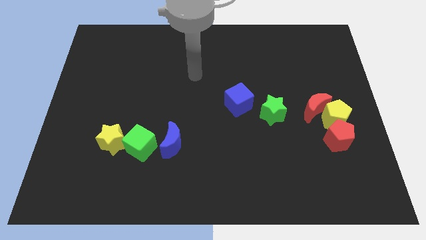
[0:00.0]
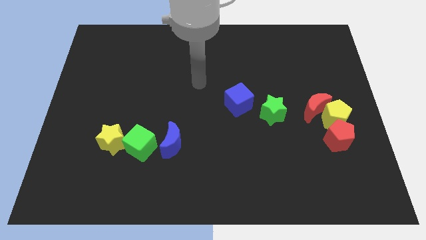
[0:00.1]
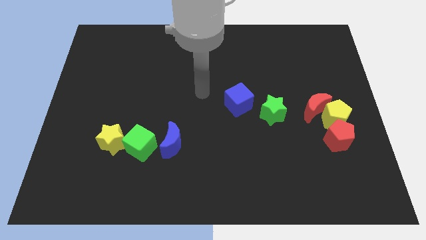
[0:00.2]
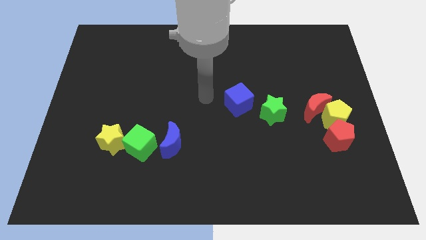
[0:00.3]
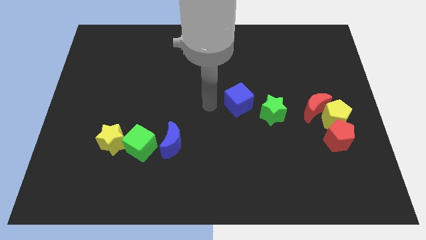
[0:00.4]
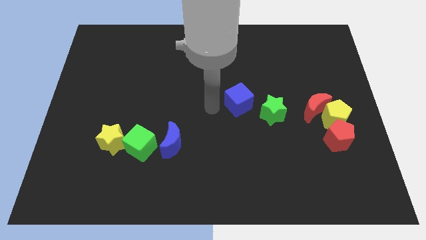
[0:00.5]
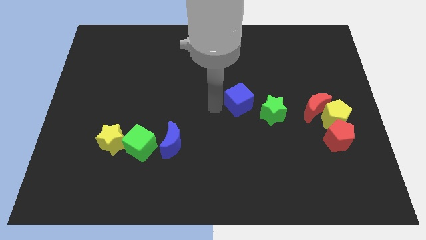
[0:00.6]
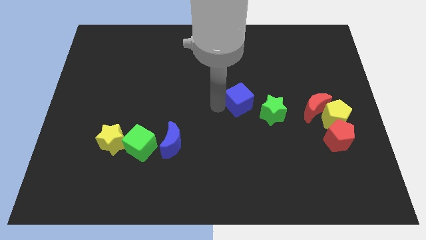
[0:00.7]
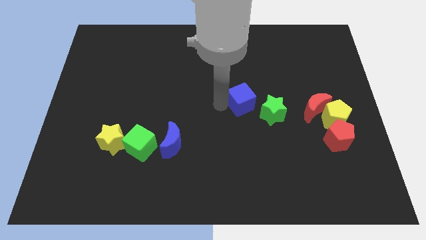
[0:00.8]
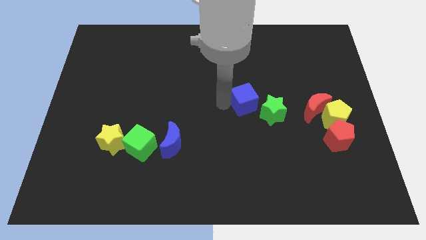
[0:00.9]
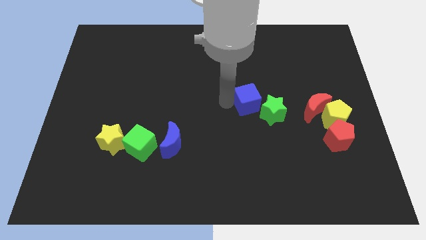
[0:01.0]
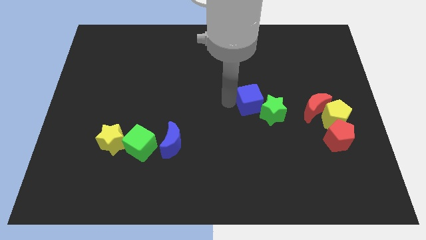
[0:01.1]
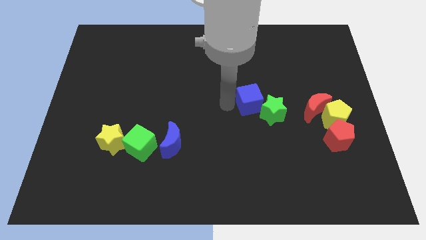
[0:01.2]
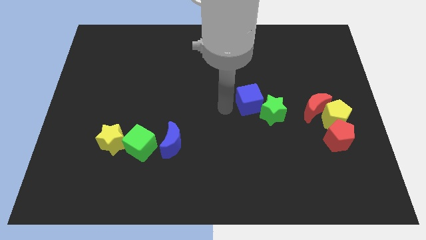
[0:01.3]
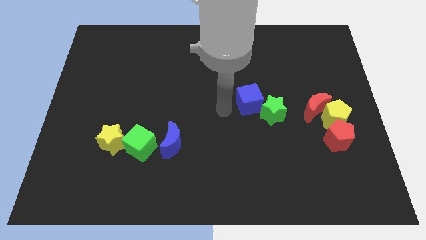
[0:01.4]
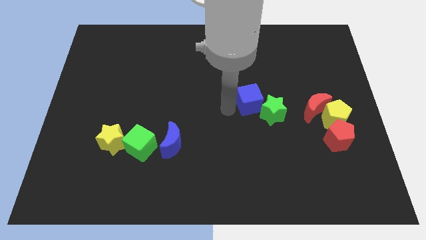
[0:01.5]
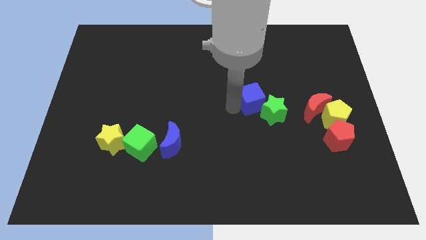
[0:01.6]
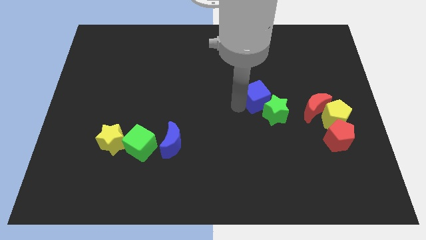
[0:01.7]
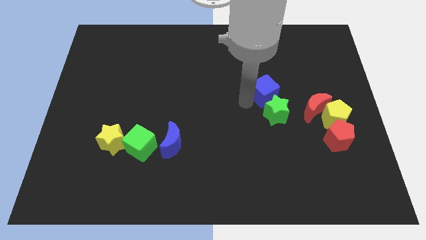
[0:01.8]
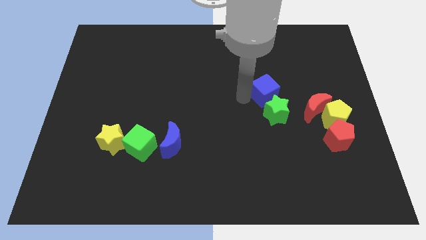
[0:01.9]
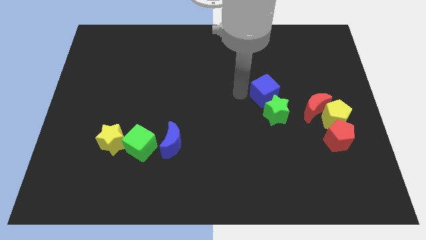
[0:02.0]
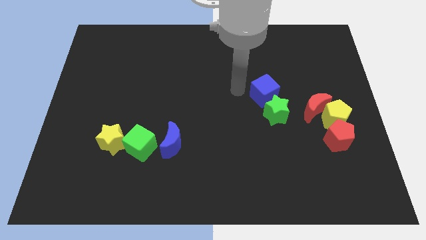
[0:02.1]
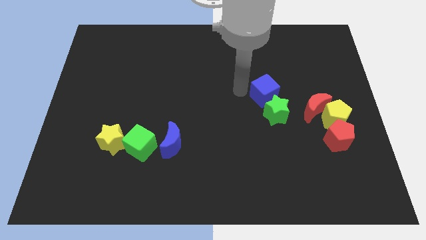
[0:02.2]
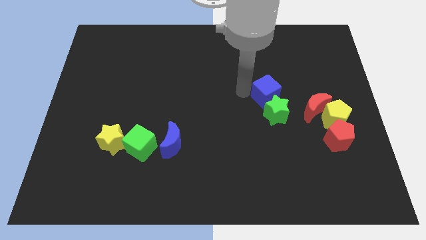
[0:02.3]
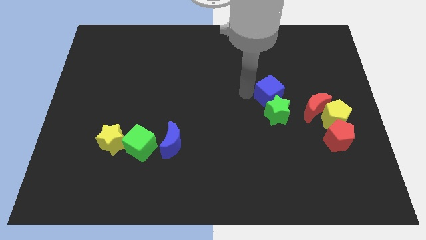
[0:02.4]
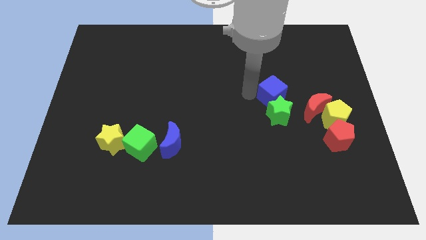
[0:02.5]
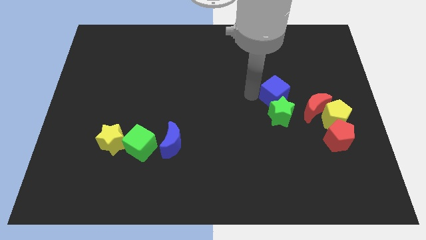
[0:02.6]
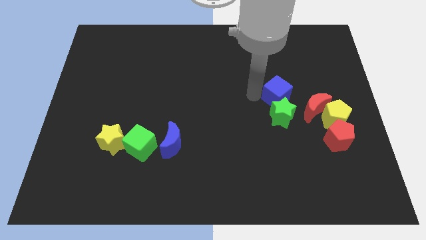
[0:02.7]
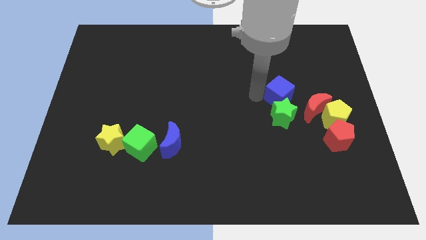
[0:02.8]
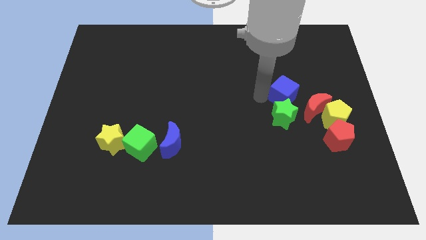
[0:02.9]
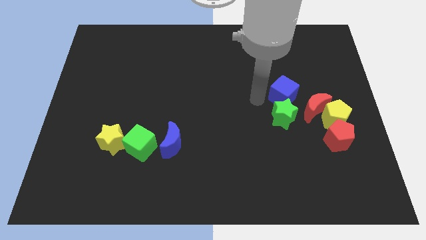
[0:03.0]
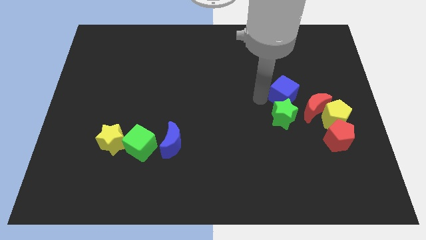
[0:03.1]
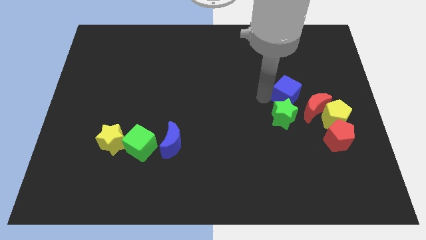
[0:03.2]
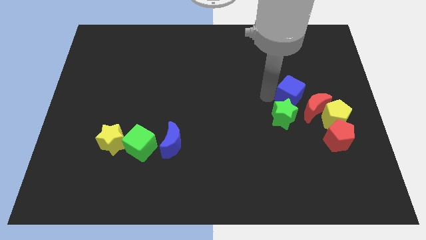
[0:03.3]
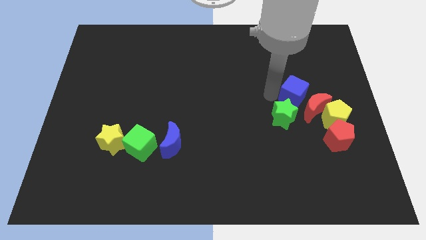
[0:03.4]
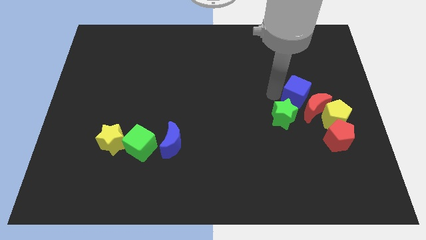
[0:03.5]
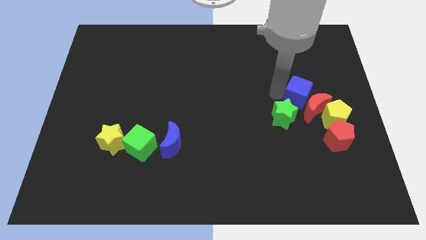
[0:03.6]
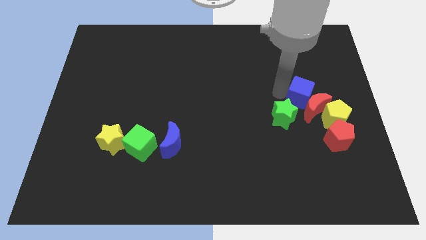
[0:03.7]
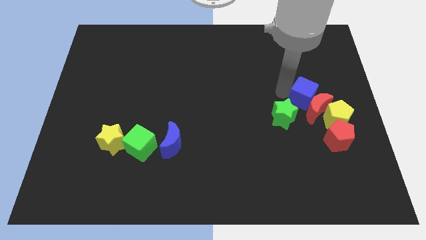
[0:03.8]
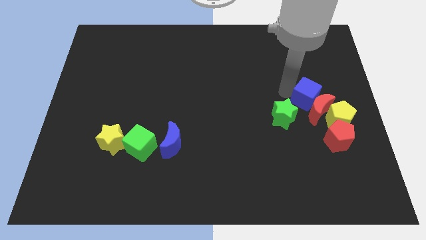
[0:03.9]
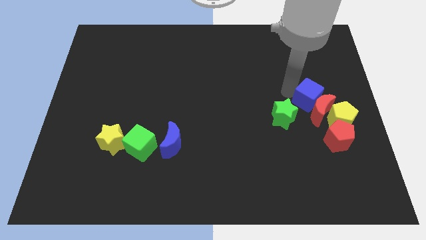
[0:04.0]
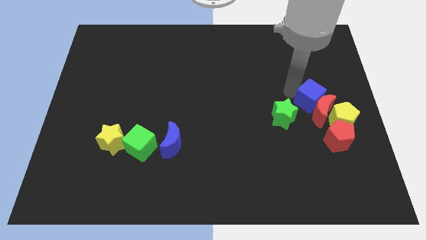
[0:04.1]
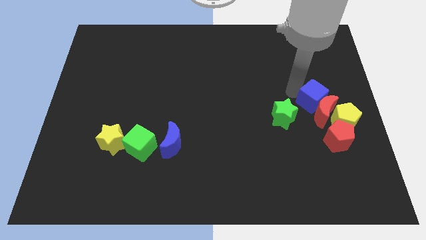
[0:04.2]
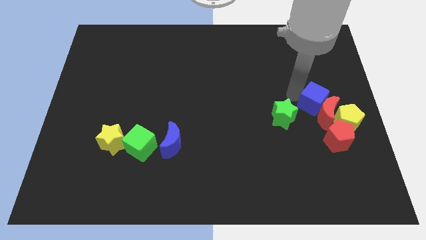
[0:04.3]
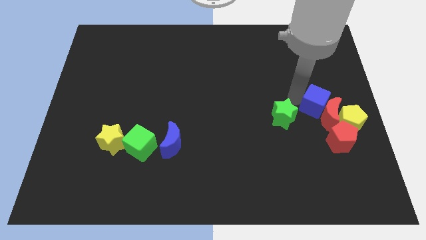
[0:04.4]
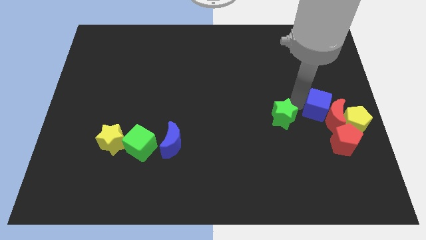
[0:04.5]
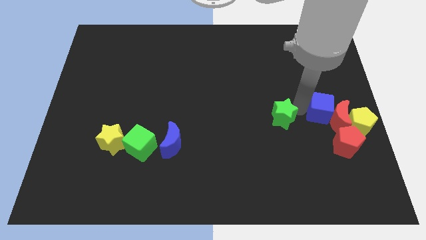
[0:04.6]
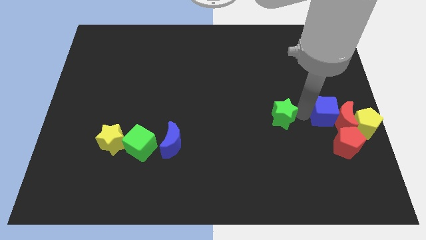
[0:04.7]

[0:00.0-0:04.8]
slide the blue cube to the center right

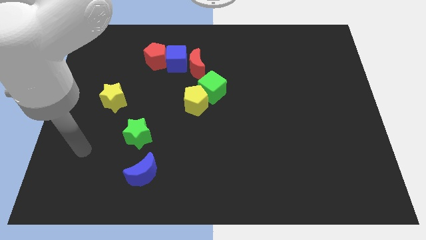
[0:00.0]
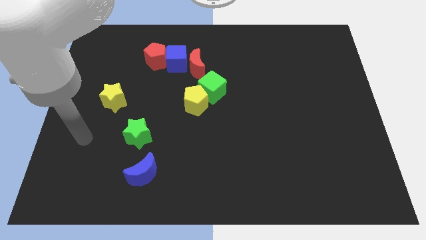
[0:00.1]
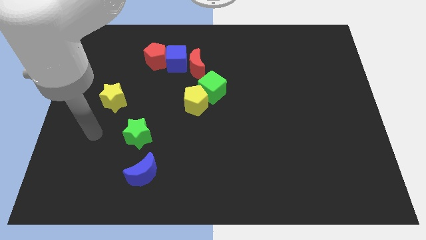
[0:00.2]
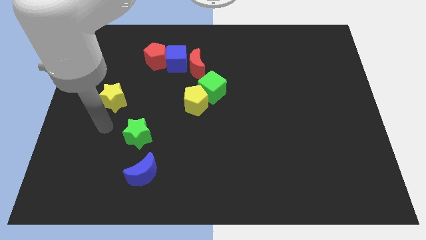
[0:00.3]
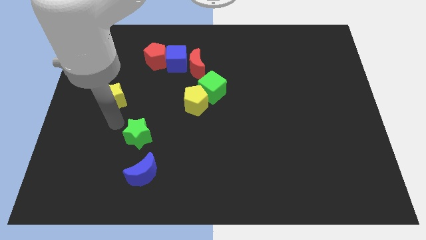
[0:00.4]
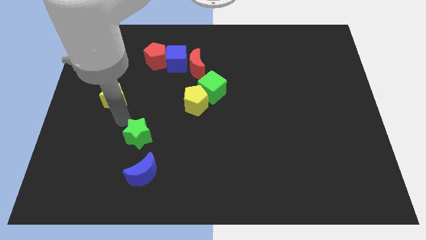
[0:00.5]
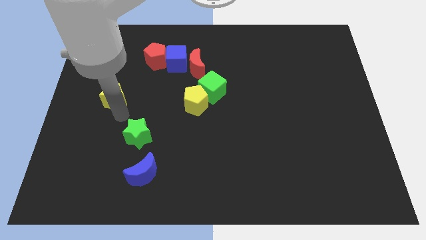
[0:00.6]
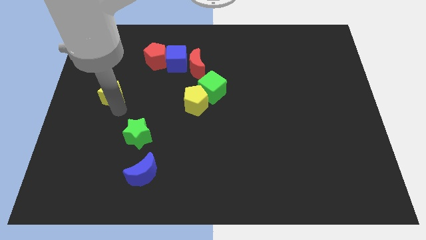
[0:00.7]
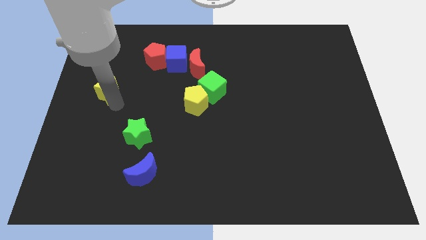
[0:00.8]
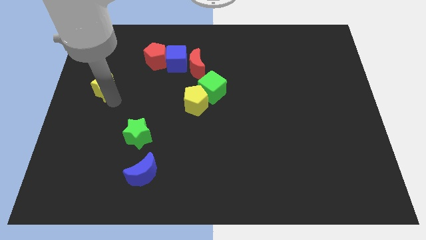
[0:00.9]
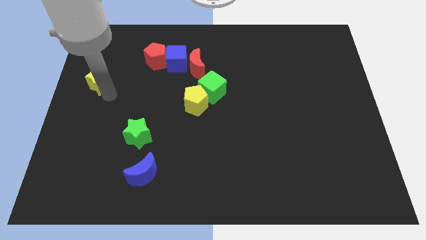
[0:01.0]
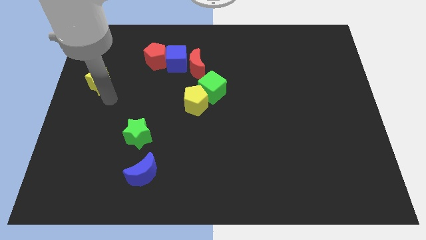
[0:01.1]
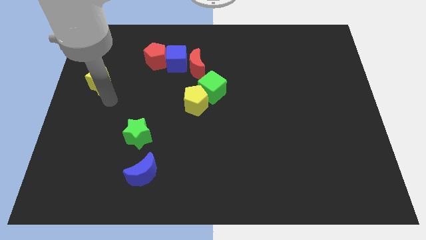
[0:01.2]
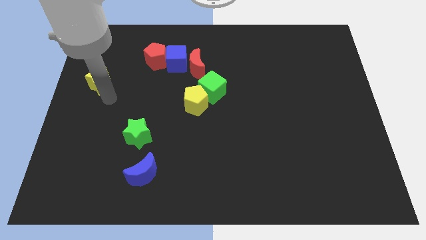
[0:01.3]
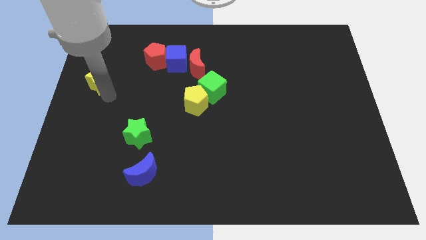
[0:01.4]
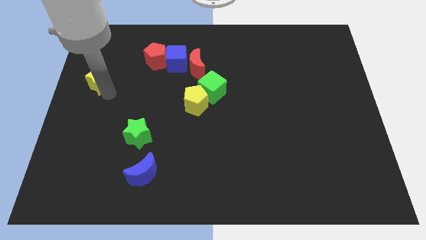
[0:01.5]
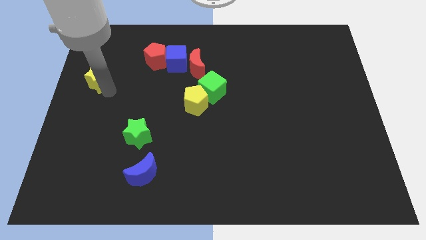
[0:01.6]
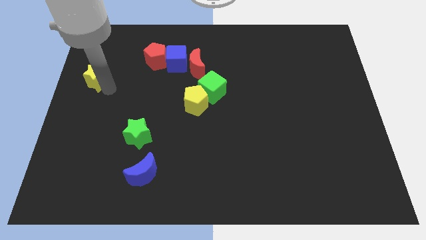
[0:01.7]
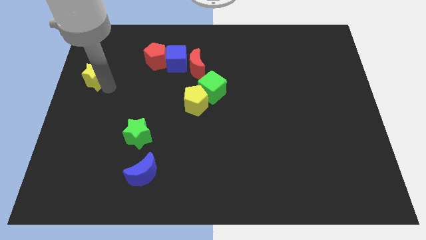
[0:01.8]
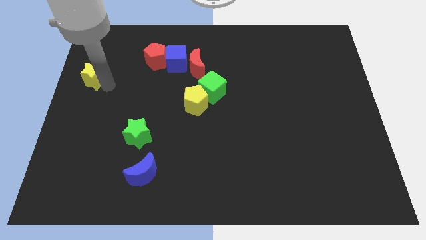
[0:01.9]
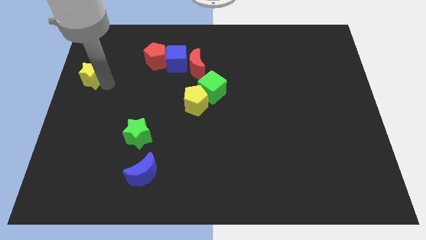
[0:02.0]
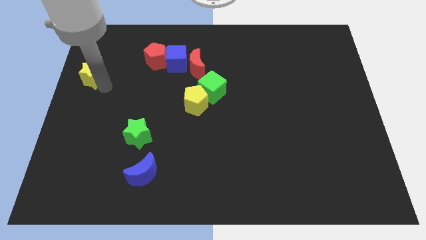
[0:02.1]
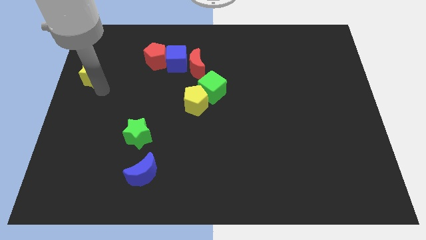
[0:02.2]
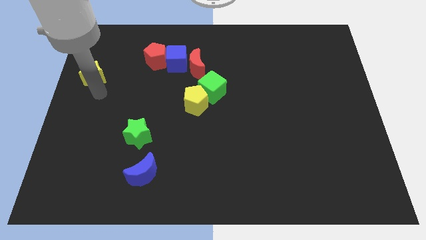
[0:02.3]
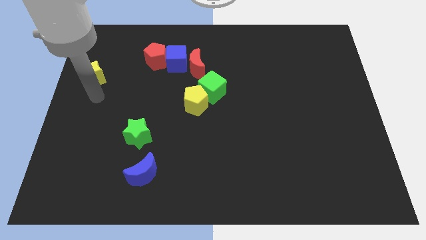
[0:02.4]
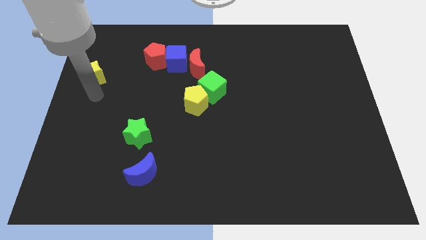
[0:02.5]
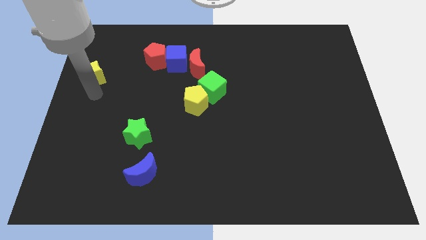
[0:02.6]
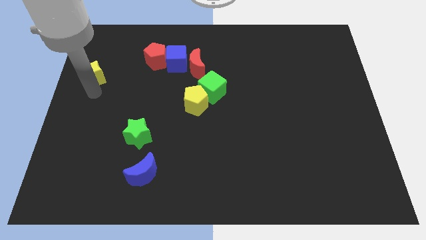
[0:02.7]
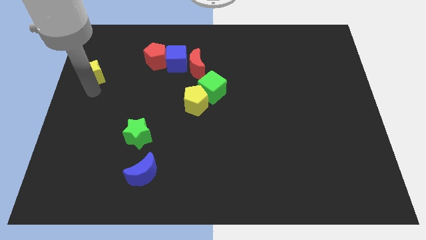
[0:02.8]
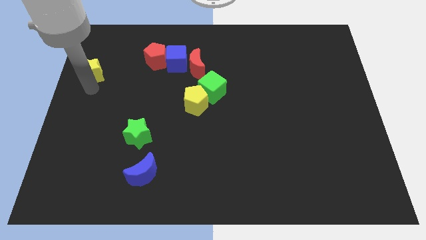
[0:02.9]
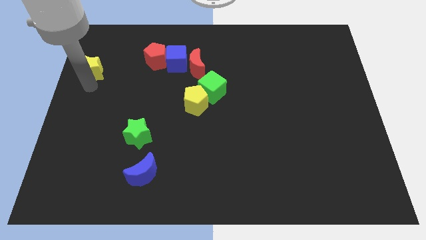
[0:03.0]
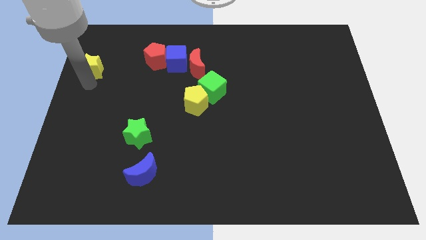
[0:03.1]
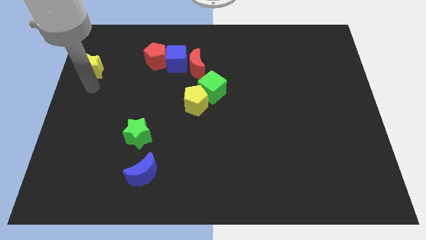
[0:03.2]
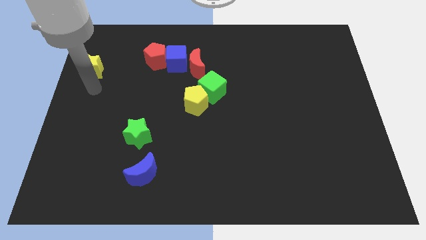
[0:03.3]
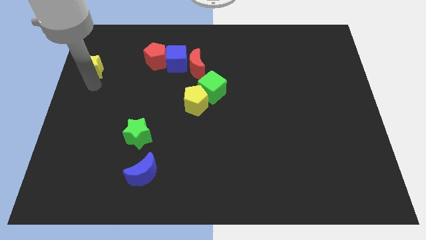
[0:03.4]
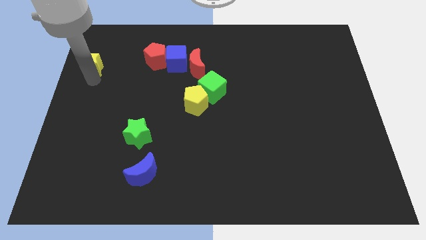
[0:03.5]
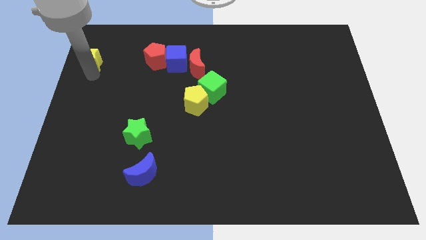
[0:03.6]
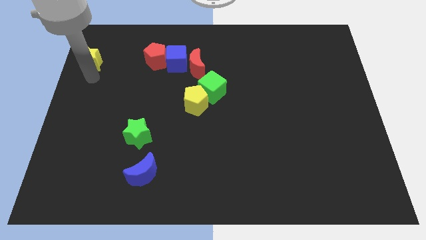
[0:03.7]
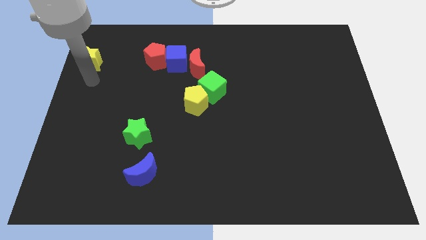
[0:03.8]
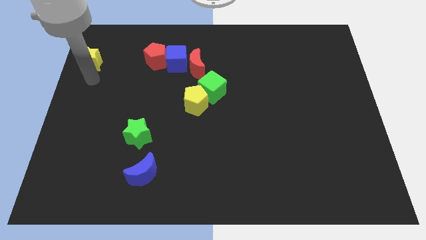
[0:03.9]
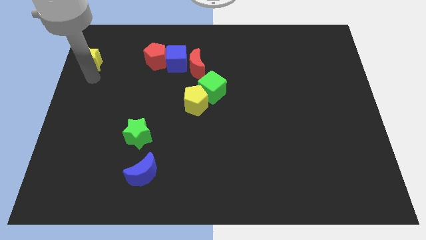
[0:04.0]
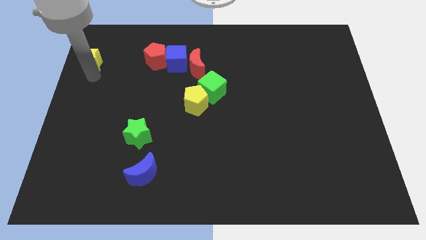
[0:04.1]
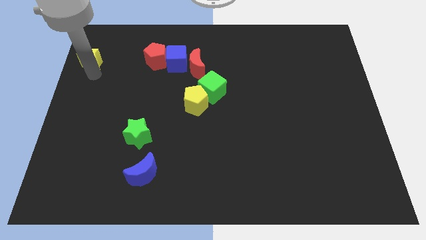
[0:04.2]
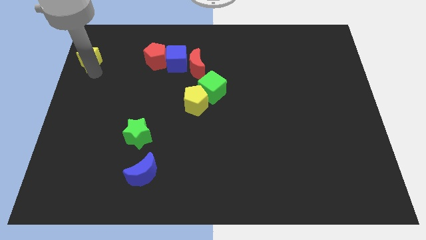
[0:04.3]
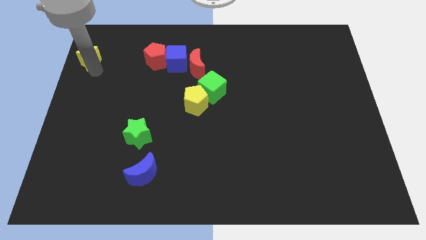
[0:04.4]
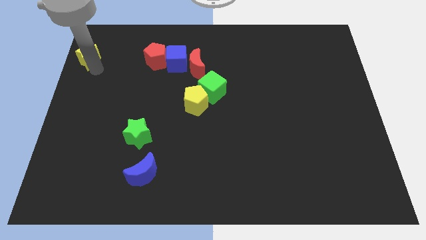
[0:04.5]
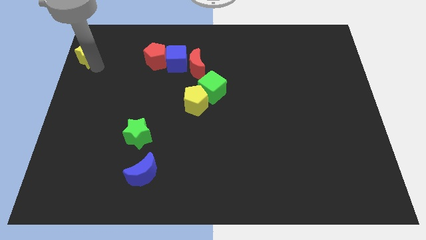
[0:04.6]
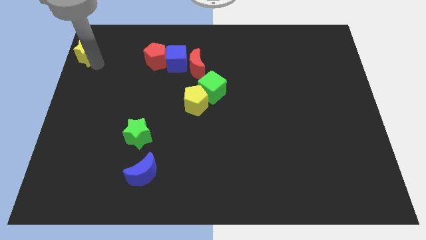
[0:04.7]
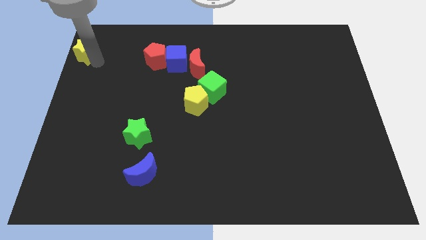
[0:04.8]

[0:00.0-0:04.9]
push the yellow star to the top left corner
